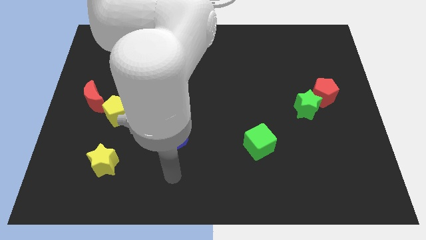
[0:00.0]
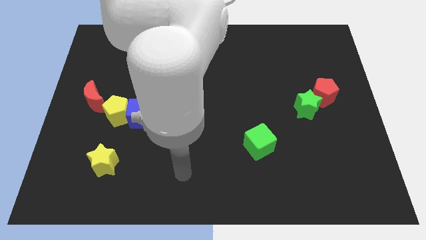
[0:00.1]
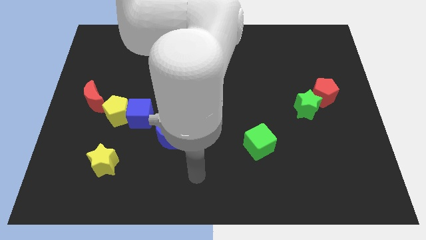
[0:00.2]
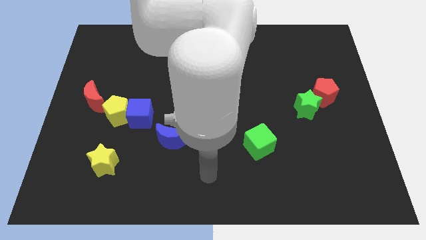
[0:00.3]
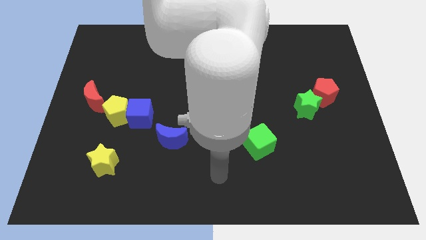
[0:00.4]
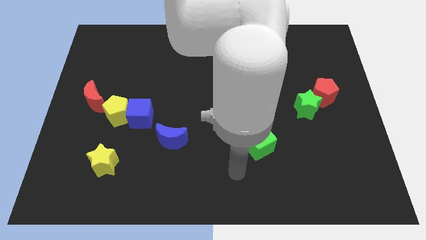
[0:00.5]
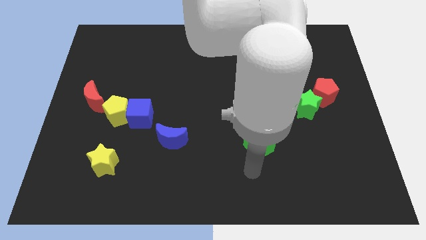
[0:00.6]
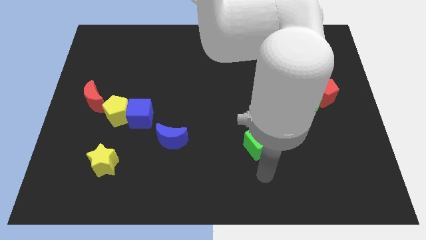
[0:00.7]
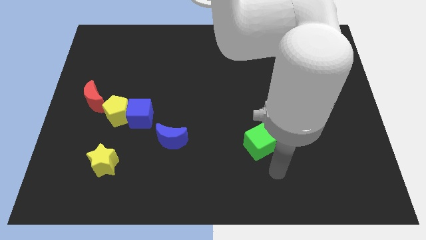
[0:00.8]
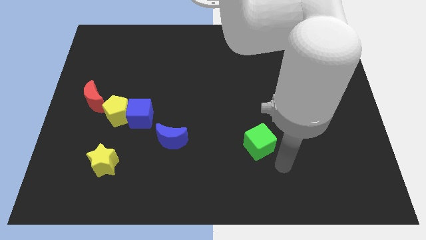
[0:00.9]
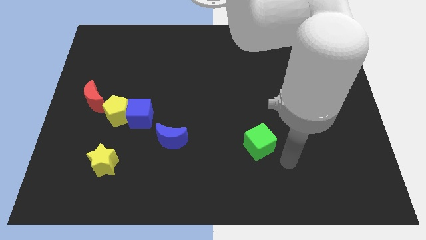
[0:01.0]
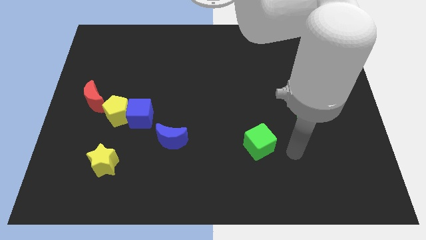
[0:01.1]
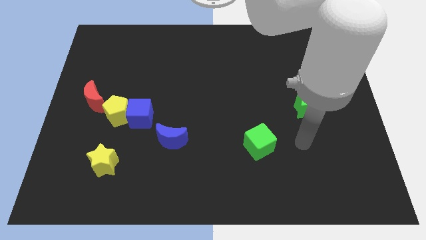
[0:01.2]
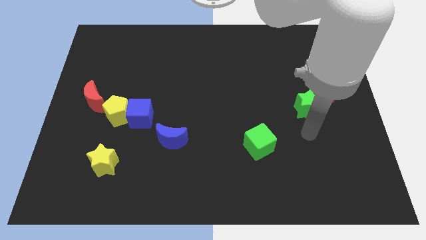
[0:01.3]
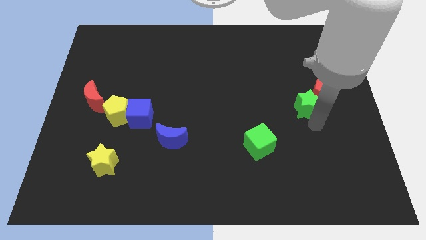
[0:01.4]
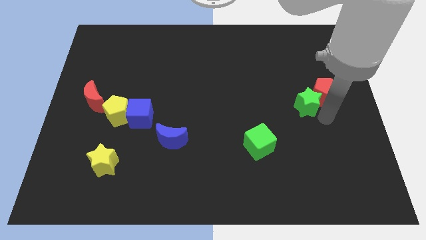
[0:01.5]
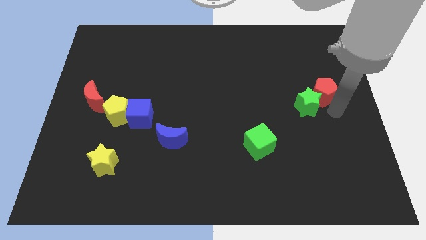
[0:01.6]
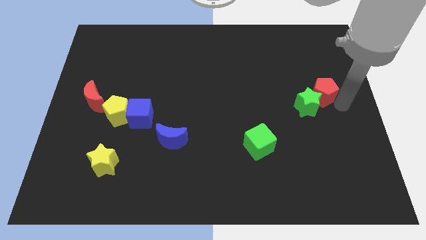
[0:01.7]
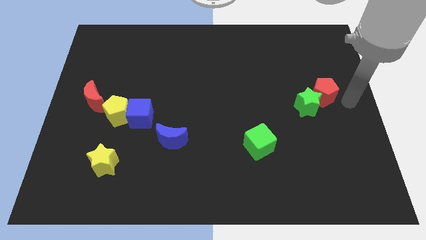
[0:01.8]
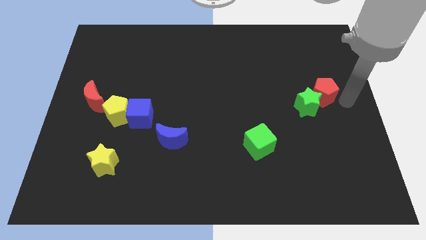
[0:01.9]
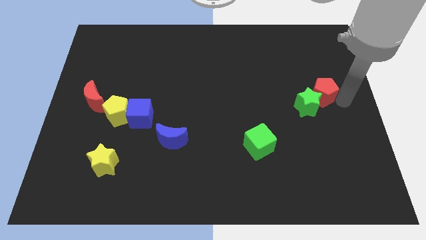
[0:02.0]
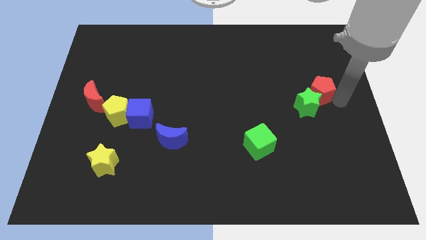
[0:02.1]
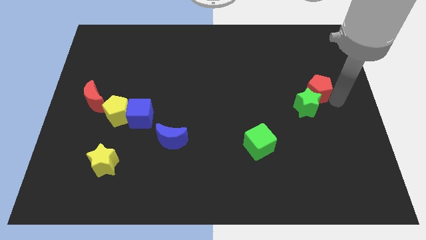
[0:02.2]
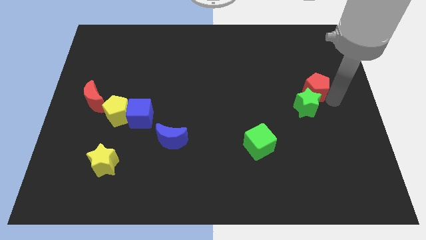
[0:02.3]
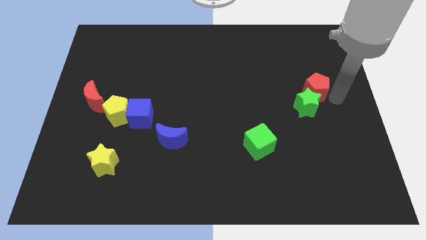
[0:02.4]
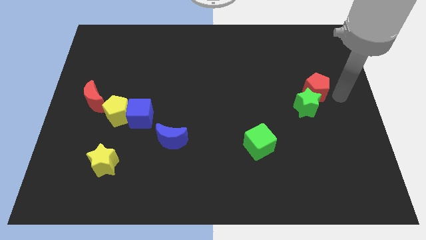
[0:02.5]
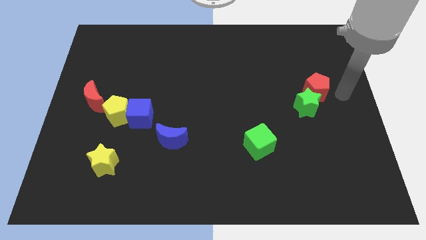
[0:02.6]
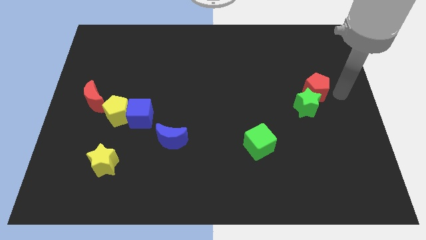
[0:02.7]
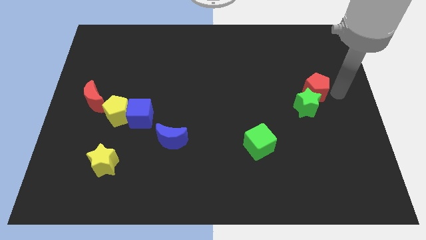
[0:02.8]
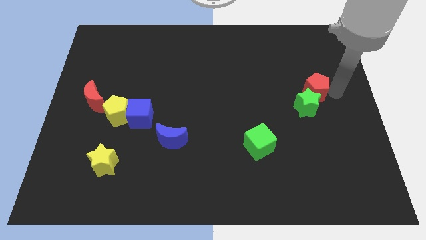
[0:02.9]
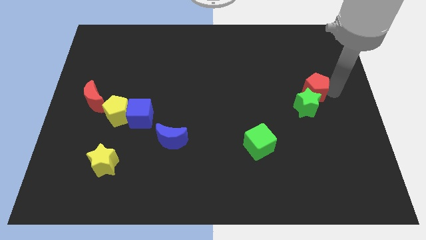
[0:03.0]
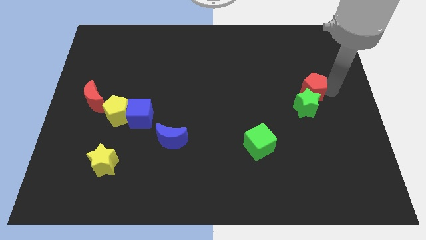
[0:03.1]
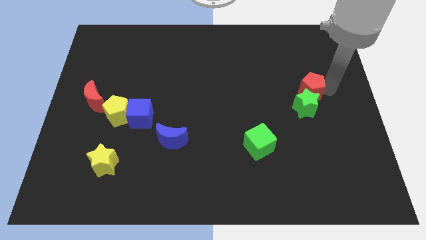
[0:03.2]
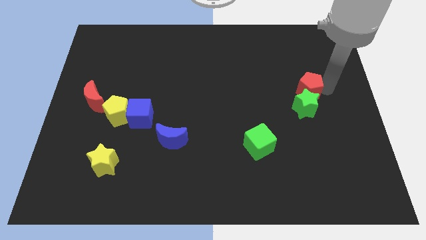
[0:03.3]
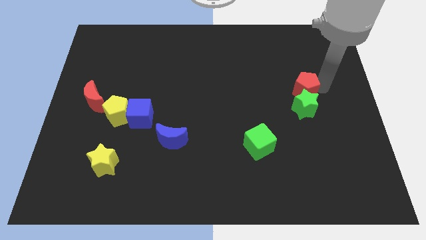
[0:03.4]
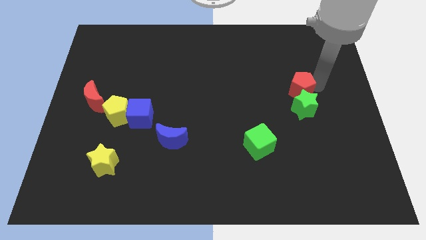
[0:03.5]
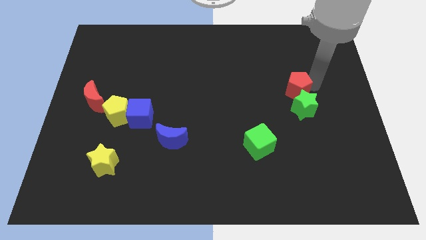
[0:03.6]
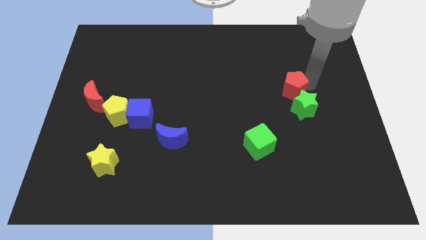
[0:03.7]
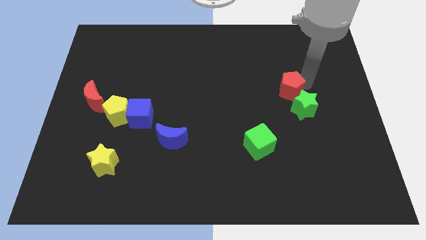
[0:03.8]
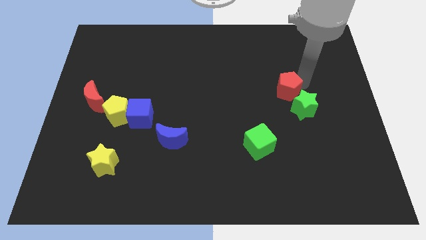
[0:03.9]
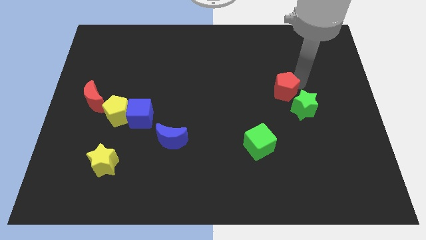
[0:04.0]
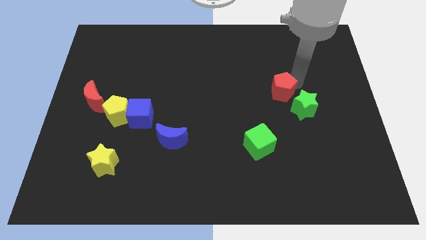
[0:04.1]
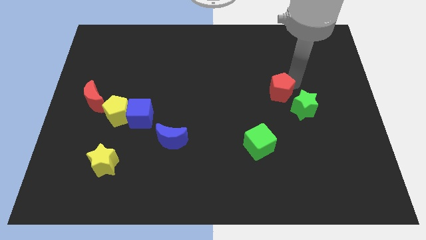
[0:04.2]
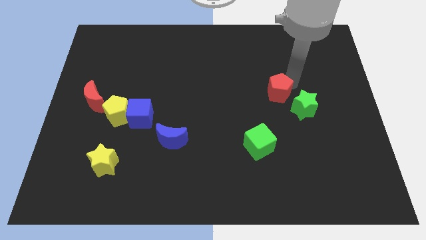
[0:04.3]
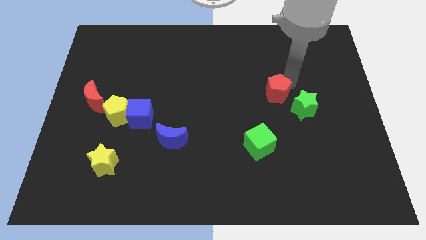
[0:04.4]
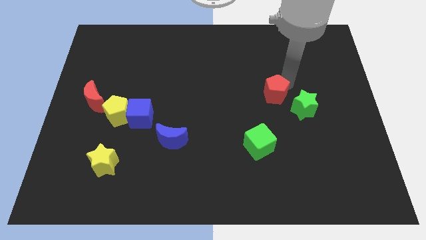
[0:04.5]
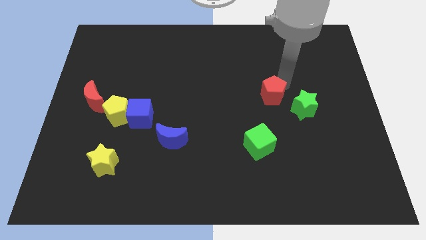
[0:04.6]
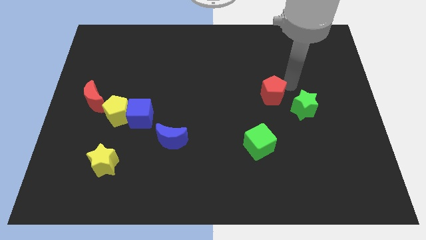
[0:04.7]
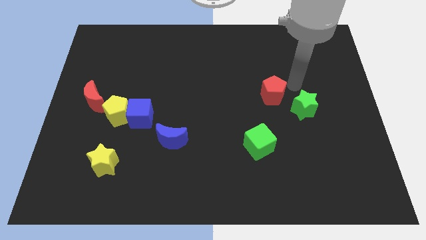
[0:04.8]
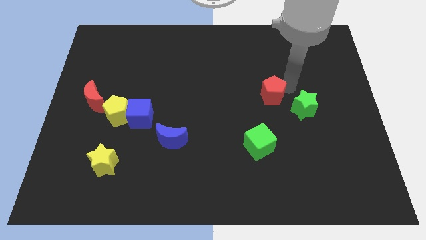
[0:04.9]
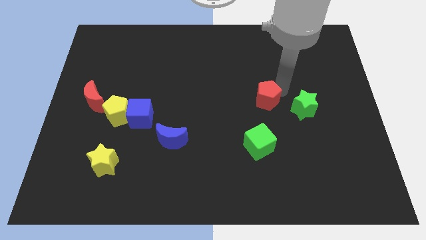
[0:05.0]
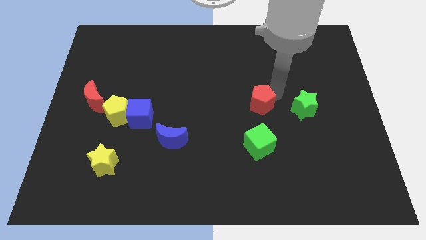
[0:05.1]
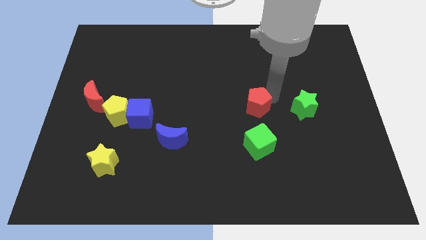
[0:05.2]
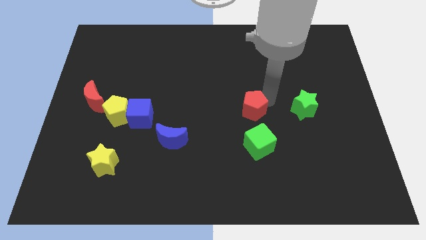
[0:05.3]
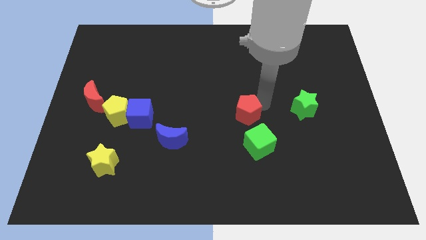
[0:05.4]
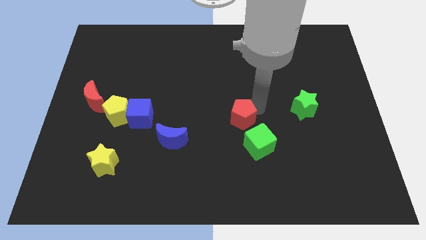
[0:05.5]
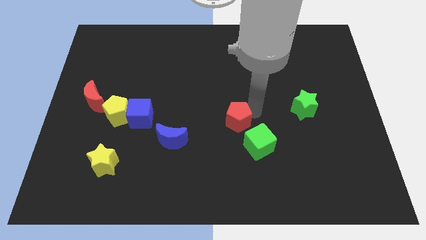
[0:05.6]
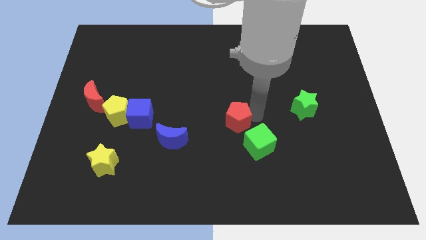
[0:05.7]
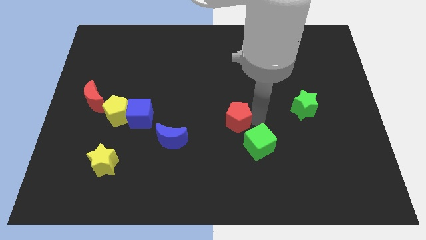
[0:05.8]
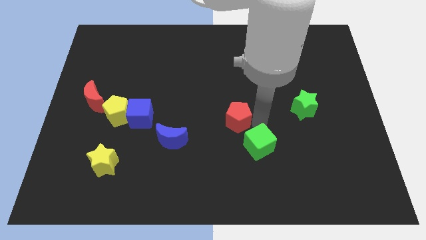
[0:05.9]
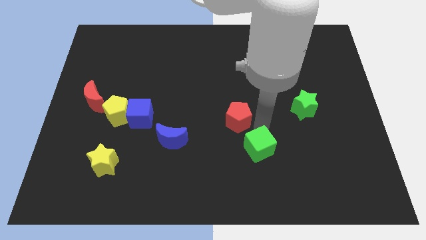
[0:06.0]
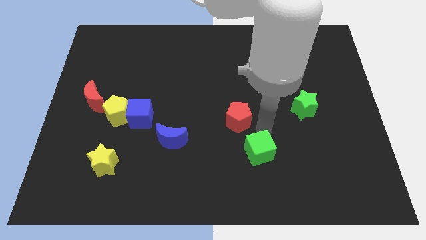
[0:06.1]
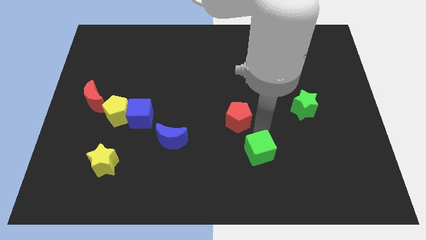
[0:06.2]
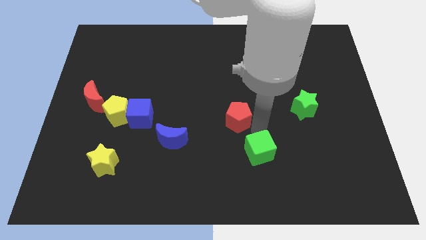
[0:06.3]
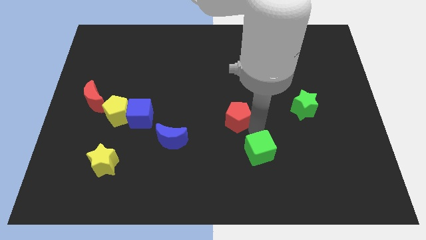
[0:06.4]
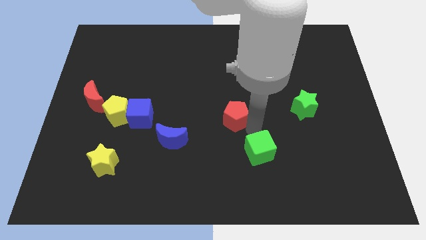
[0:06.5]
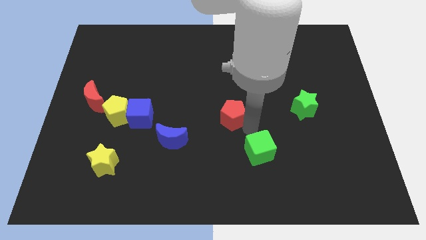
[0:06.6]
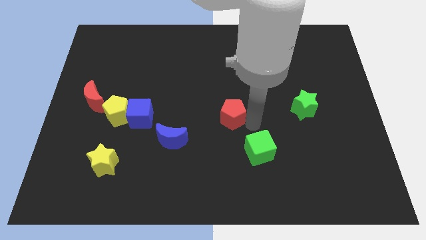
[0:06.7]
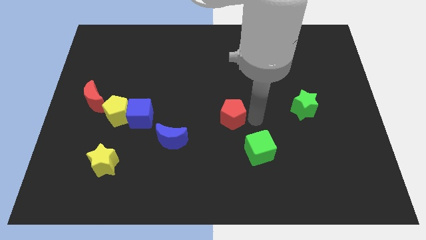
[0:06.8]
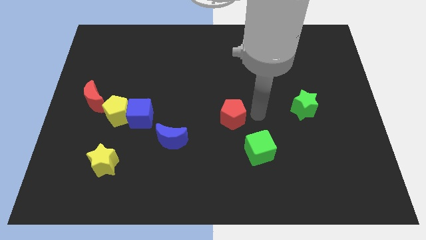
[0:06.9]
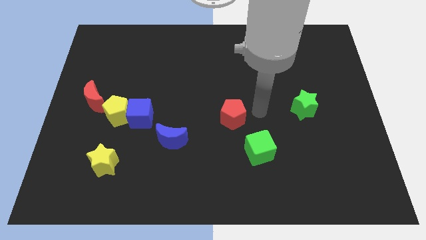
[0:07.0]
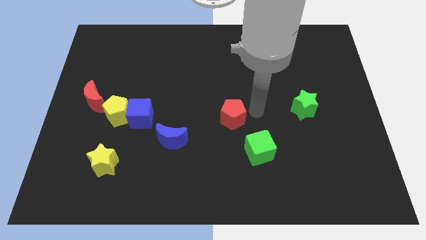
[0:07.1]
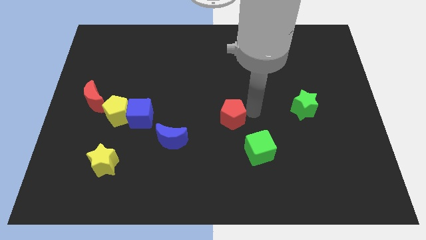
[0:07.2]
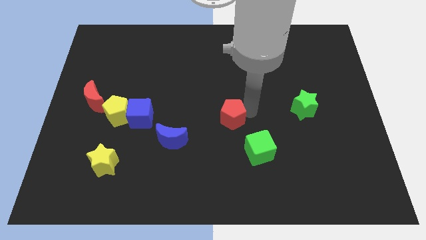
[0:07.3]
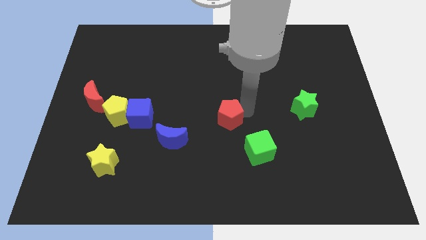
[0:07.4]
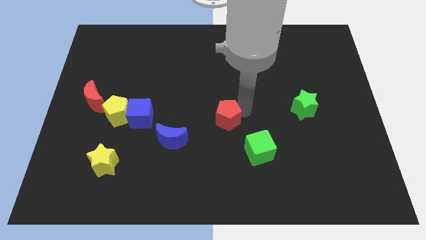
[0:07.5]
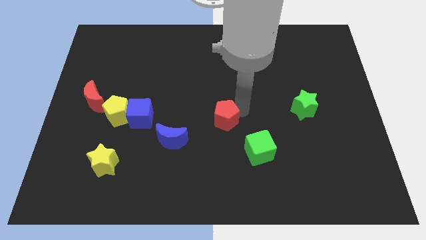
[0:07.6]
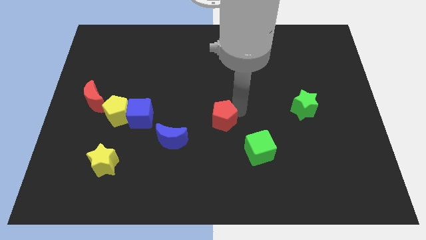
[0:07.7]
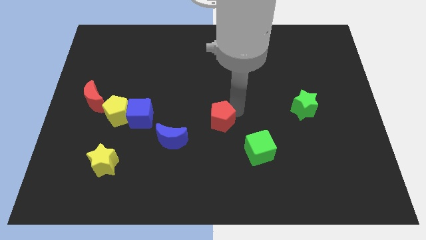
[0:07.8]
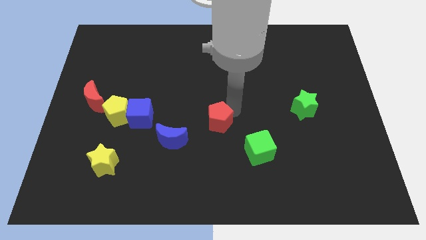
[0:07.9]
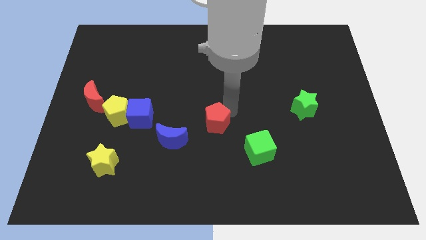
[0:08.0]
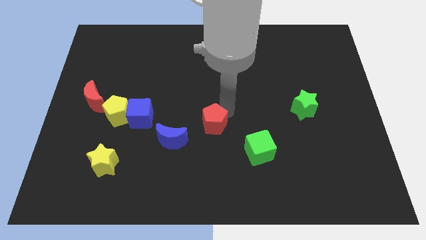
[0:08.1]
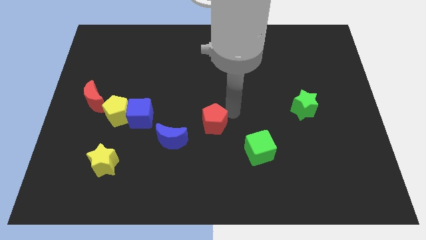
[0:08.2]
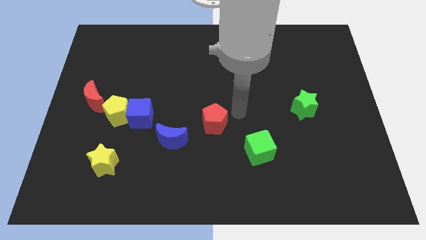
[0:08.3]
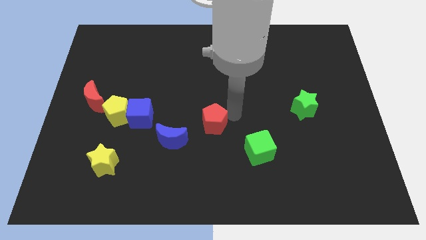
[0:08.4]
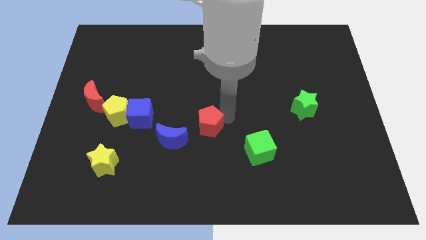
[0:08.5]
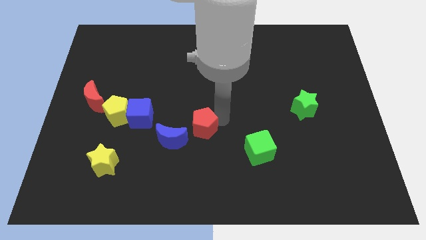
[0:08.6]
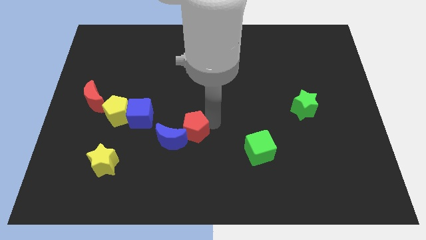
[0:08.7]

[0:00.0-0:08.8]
slide the red pentagon towards the blue moon
